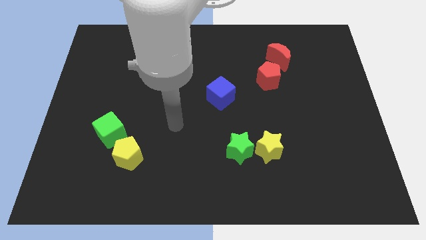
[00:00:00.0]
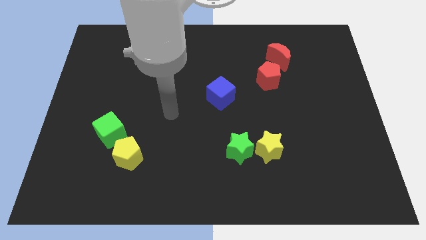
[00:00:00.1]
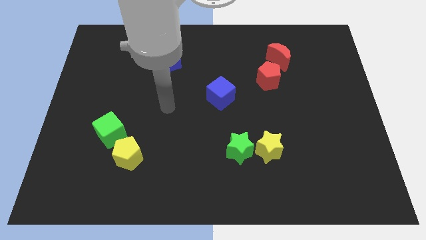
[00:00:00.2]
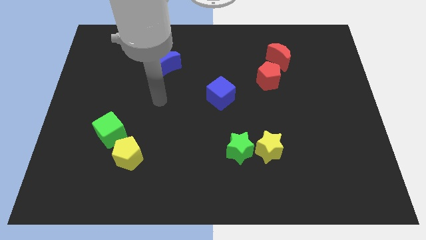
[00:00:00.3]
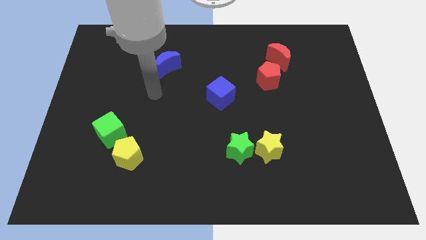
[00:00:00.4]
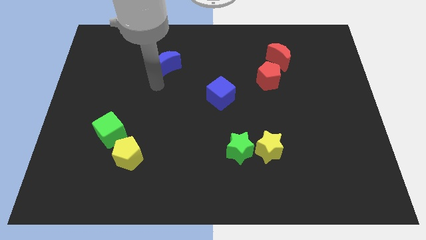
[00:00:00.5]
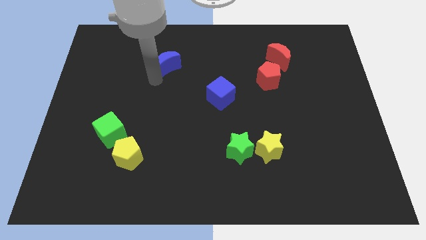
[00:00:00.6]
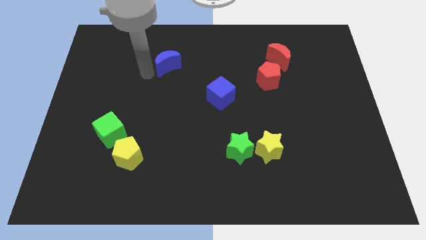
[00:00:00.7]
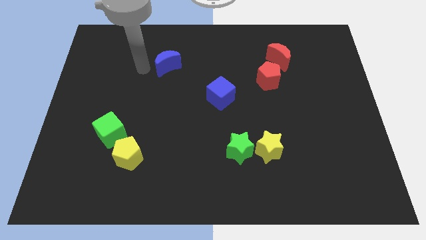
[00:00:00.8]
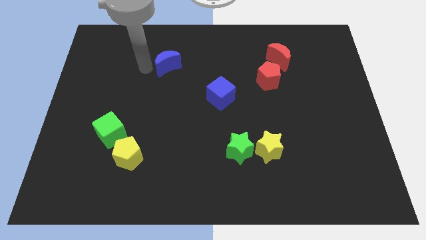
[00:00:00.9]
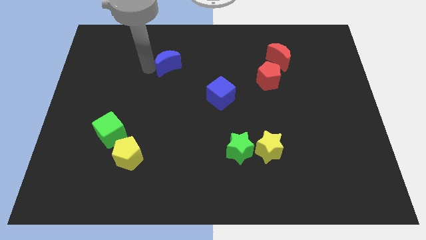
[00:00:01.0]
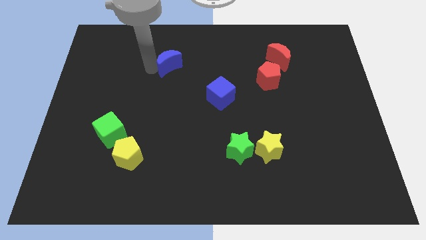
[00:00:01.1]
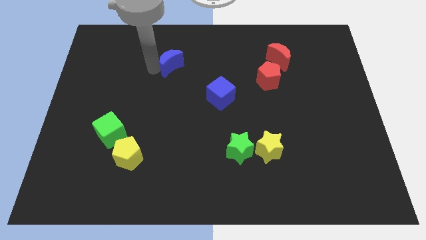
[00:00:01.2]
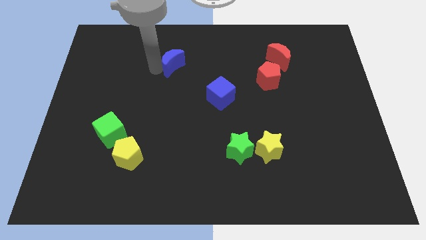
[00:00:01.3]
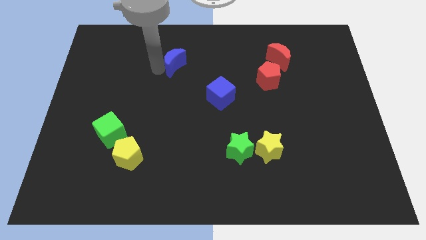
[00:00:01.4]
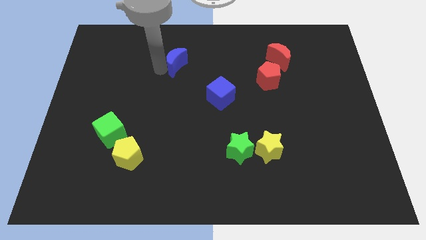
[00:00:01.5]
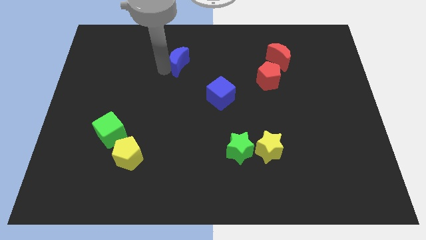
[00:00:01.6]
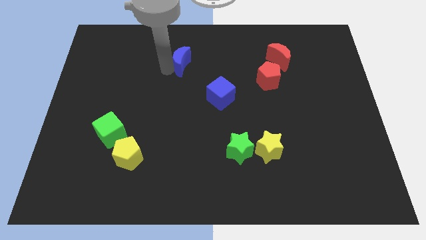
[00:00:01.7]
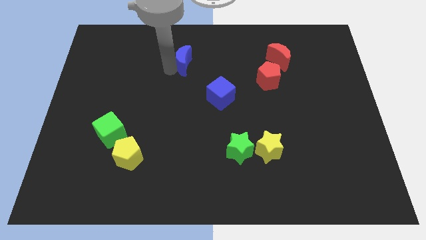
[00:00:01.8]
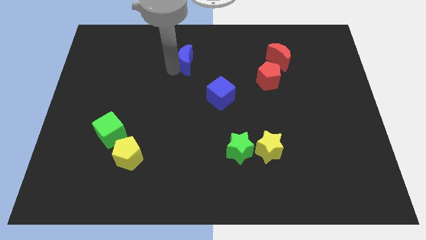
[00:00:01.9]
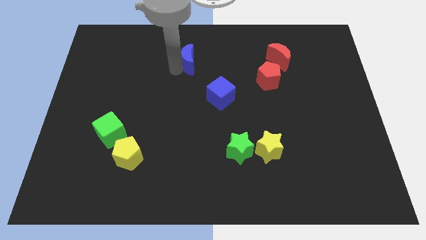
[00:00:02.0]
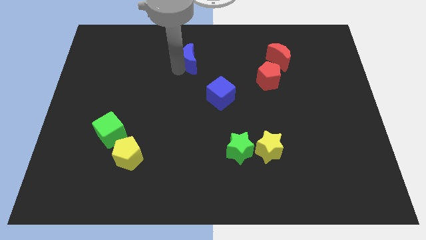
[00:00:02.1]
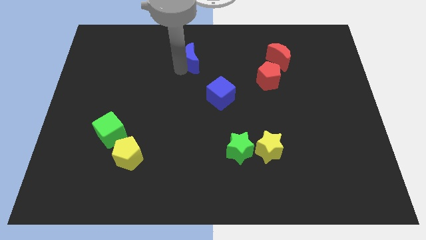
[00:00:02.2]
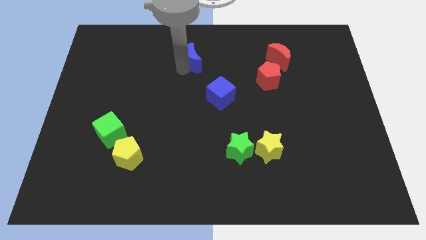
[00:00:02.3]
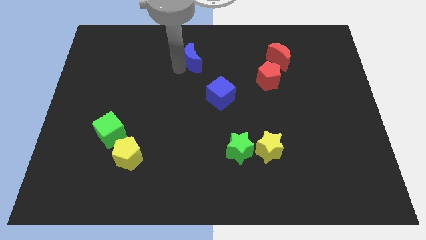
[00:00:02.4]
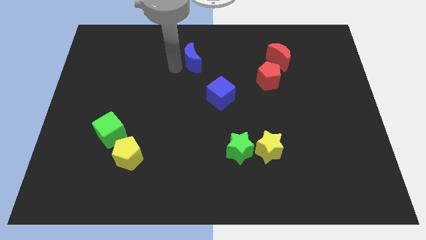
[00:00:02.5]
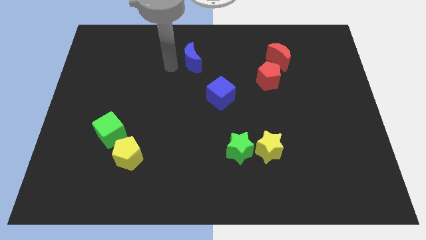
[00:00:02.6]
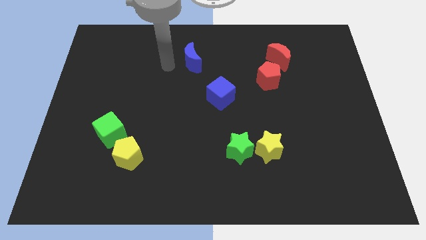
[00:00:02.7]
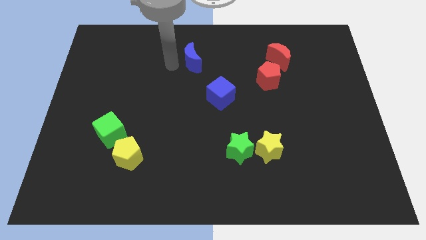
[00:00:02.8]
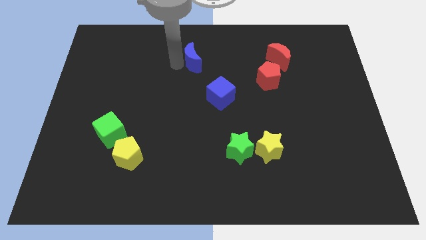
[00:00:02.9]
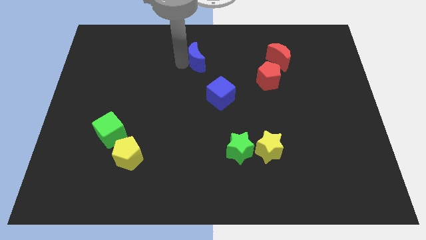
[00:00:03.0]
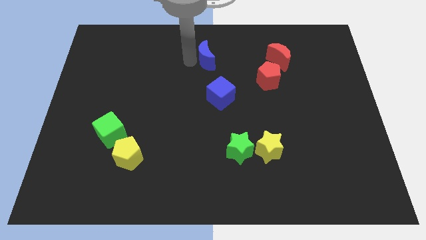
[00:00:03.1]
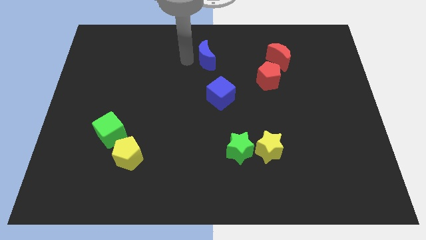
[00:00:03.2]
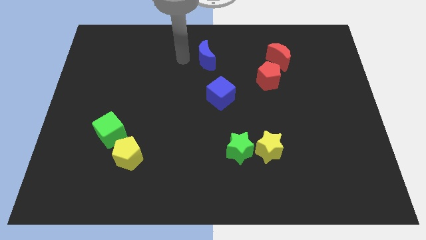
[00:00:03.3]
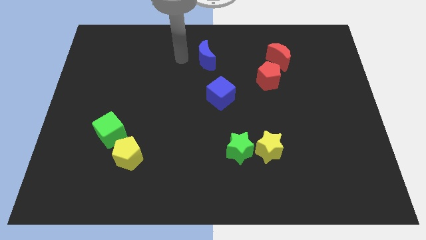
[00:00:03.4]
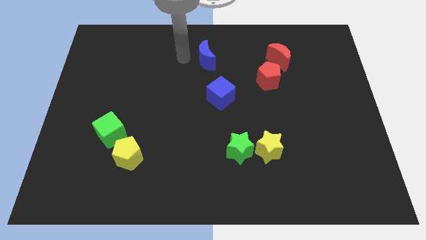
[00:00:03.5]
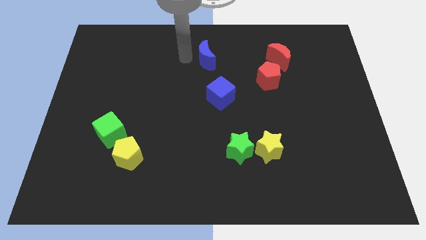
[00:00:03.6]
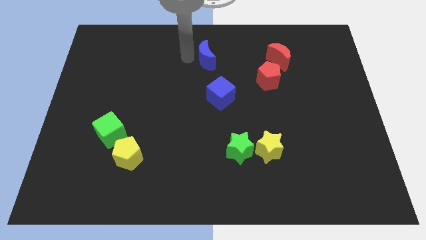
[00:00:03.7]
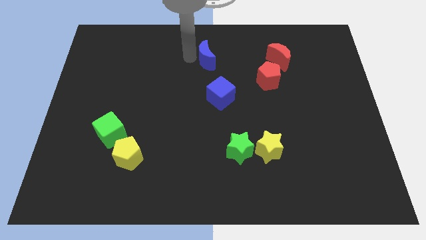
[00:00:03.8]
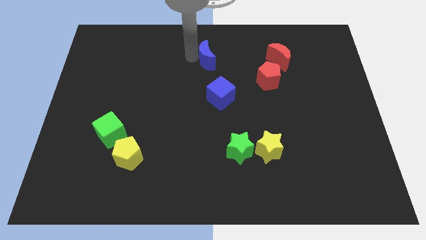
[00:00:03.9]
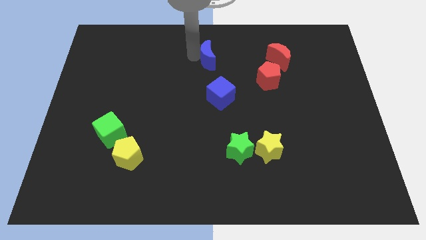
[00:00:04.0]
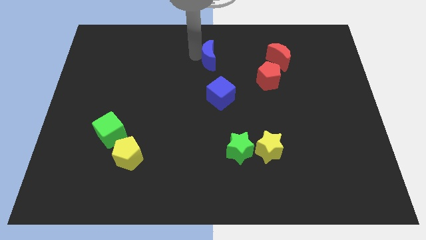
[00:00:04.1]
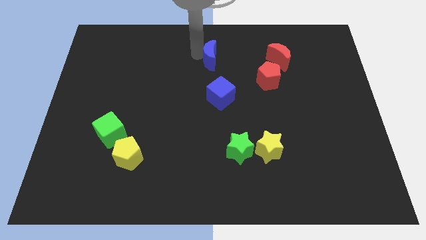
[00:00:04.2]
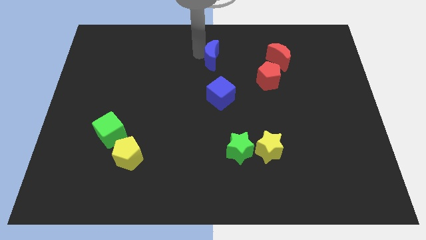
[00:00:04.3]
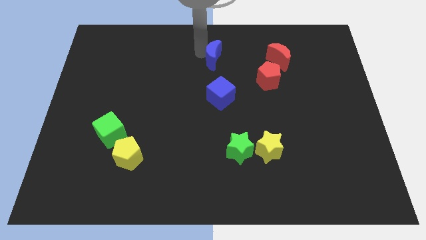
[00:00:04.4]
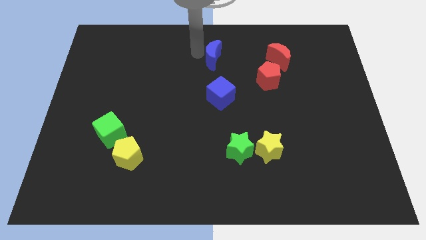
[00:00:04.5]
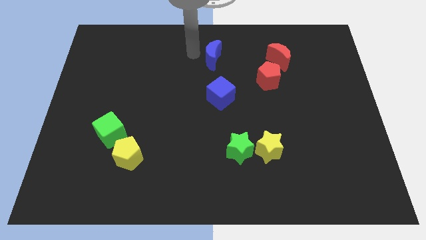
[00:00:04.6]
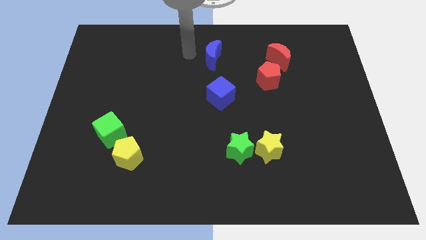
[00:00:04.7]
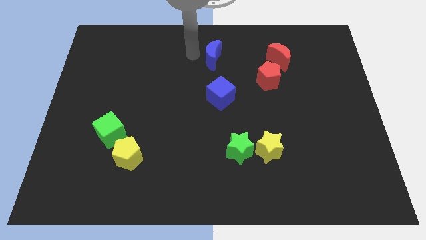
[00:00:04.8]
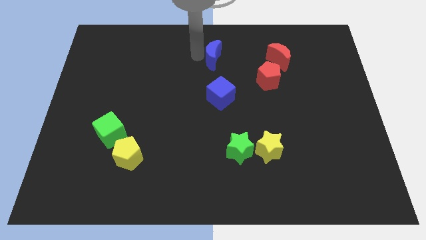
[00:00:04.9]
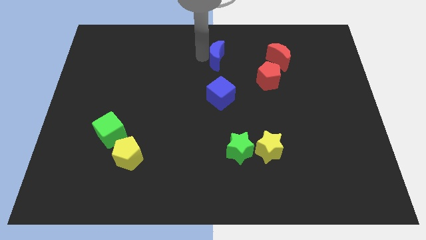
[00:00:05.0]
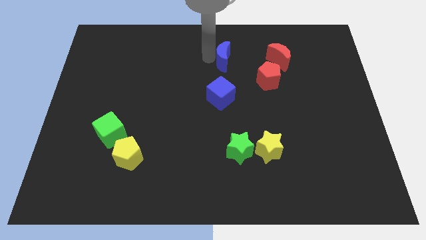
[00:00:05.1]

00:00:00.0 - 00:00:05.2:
push the blue moon just left of the red moon

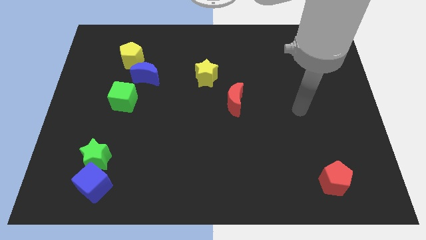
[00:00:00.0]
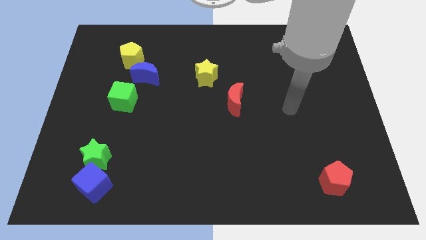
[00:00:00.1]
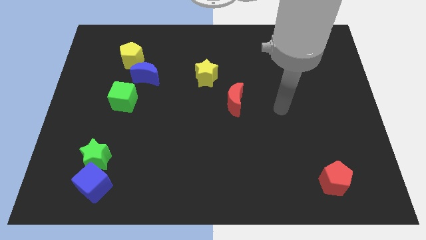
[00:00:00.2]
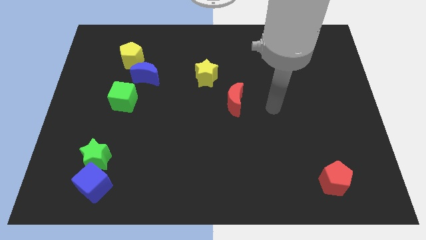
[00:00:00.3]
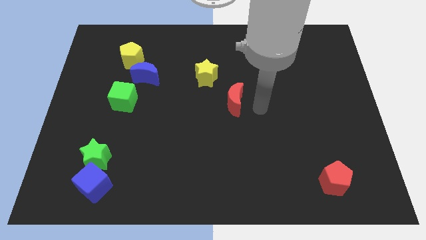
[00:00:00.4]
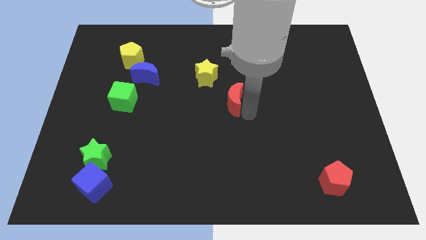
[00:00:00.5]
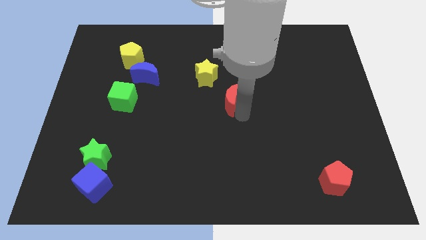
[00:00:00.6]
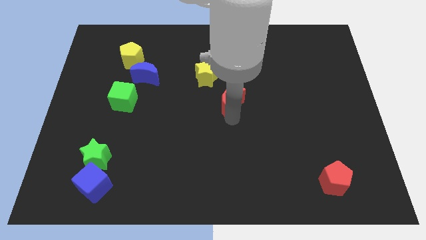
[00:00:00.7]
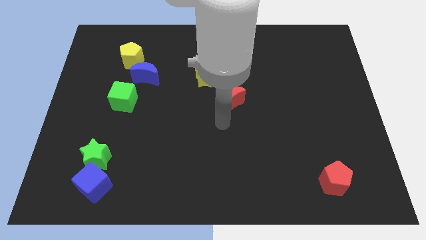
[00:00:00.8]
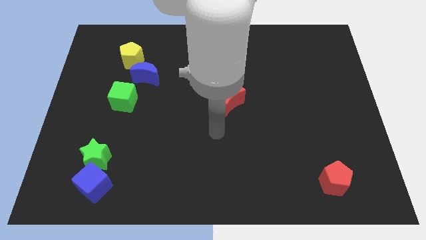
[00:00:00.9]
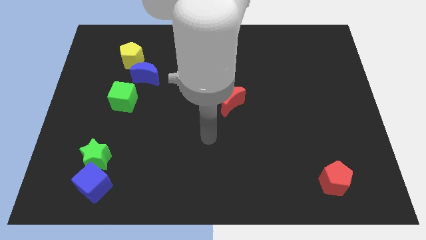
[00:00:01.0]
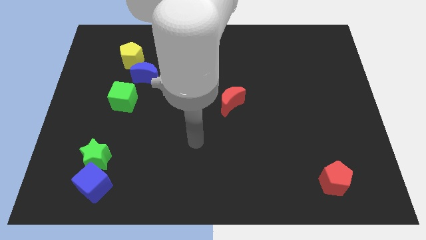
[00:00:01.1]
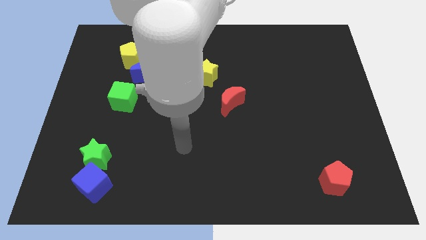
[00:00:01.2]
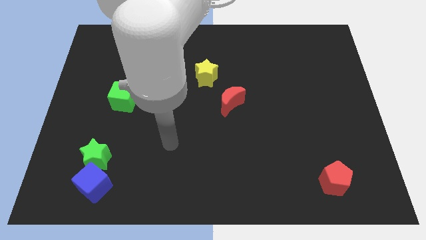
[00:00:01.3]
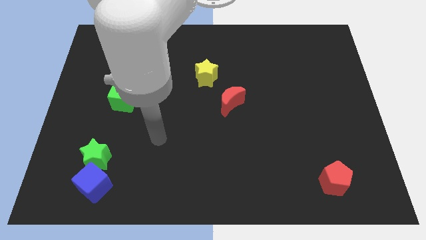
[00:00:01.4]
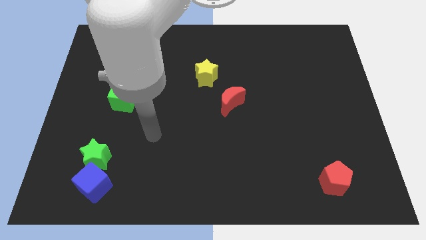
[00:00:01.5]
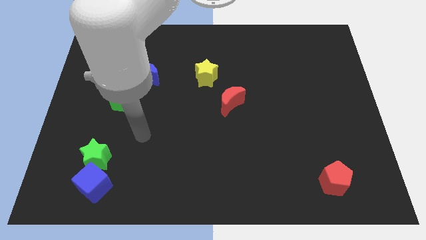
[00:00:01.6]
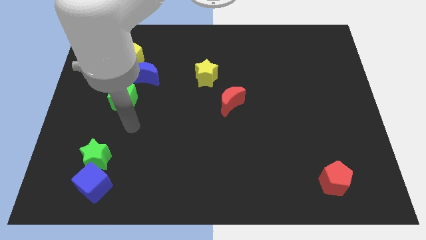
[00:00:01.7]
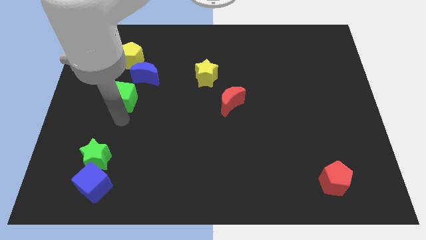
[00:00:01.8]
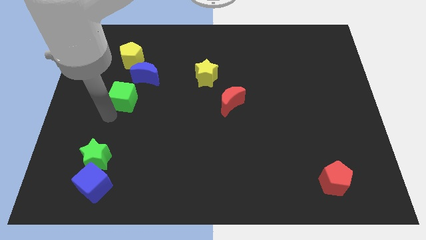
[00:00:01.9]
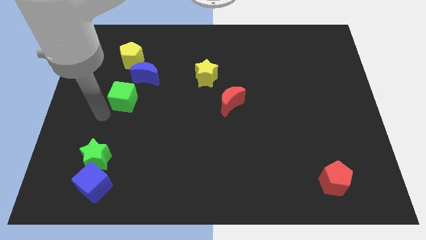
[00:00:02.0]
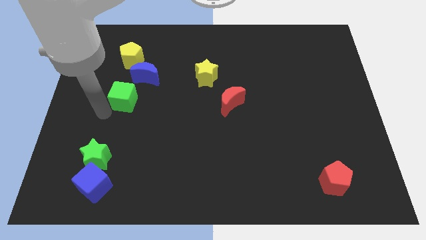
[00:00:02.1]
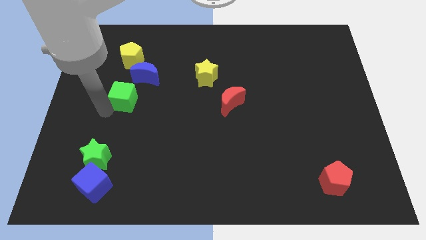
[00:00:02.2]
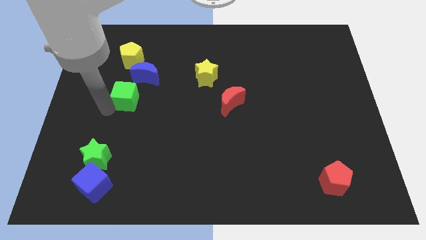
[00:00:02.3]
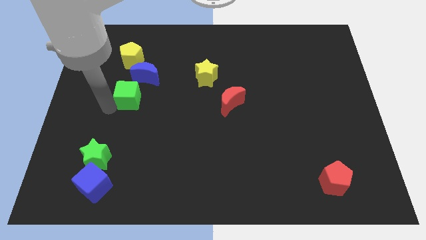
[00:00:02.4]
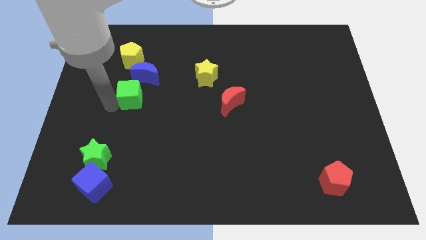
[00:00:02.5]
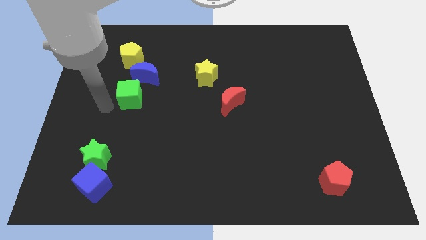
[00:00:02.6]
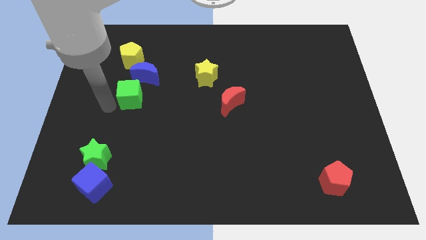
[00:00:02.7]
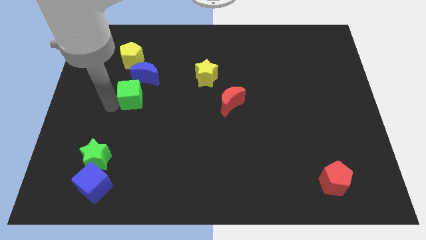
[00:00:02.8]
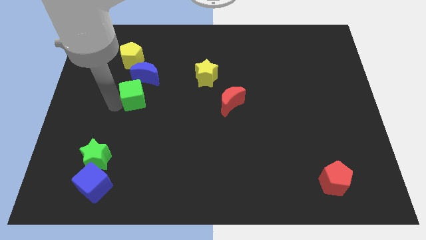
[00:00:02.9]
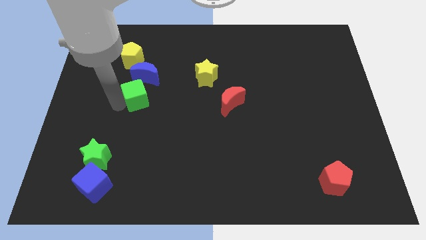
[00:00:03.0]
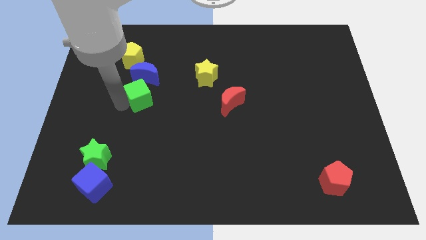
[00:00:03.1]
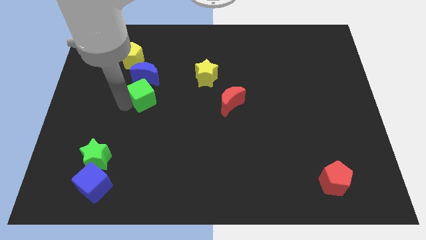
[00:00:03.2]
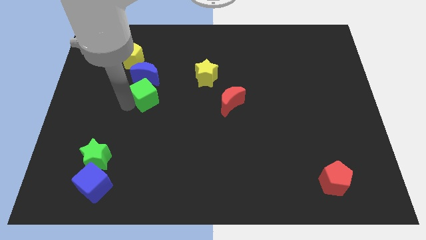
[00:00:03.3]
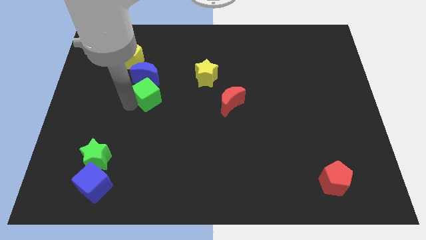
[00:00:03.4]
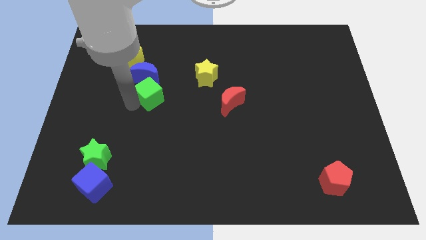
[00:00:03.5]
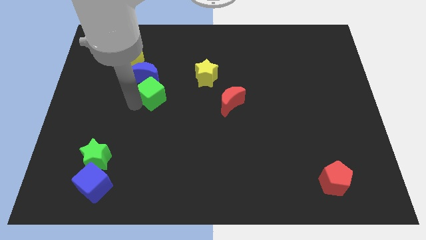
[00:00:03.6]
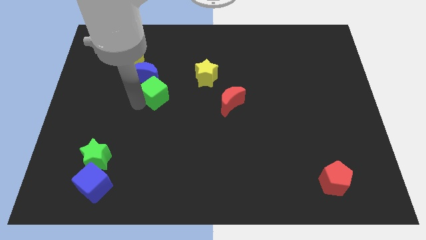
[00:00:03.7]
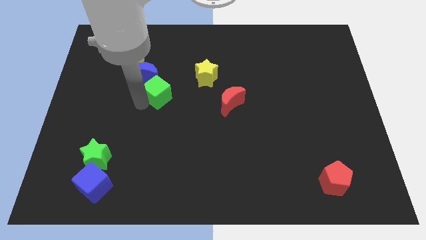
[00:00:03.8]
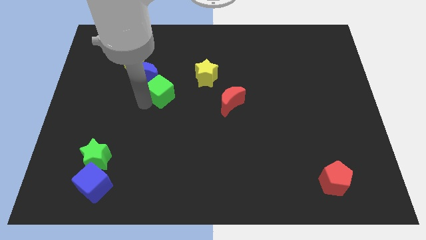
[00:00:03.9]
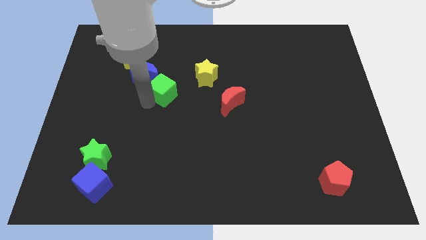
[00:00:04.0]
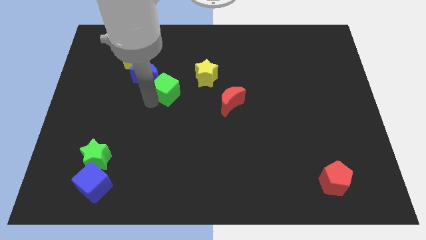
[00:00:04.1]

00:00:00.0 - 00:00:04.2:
push the green cube left of the yellow star
